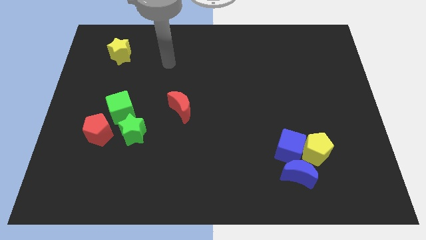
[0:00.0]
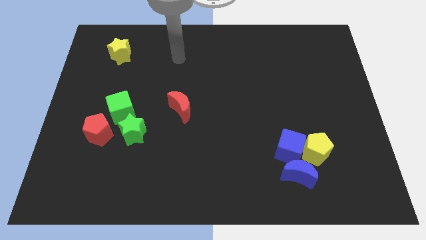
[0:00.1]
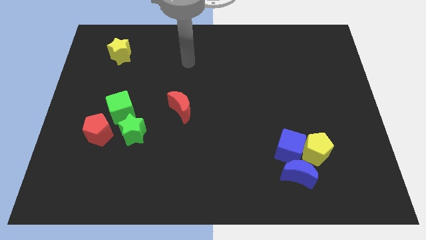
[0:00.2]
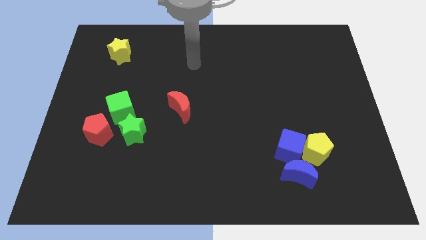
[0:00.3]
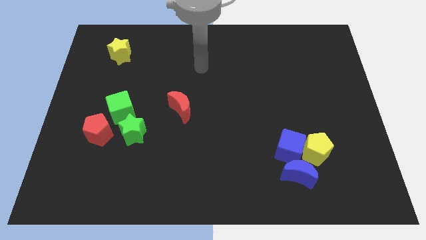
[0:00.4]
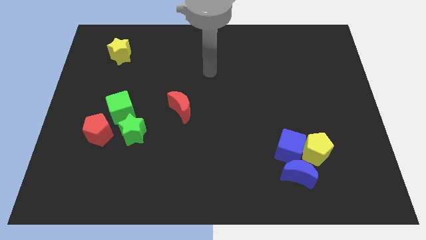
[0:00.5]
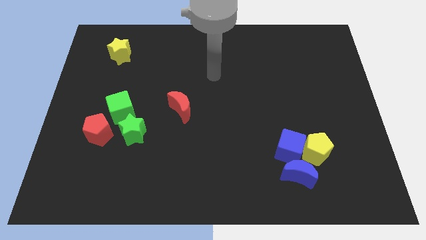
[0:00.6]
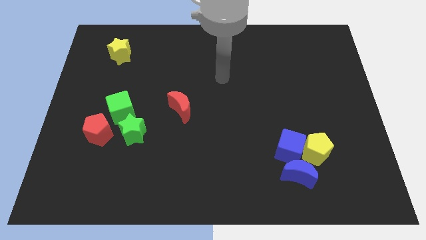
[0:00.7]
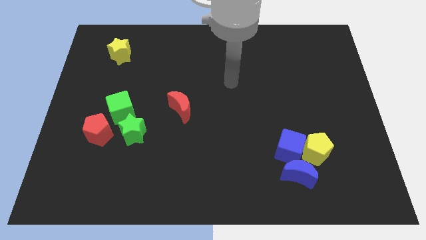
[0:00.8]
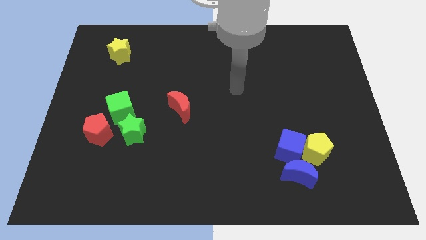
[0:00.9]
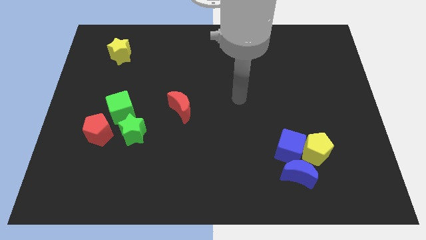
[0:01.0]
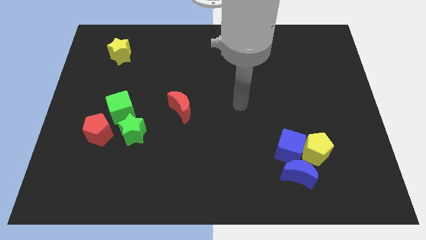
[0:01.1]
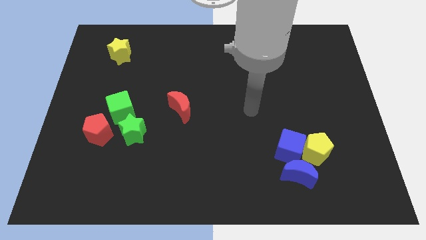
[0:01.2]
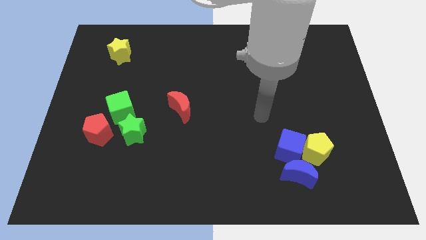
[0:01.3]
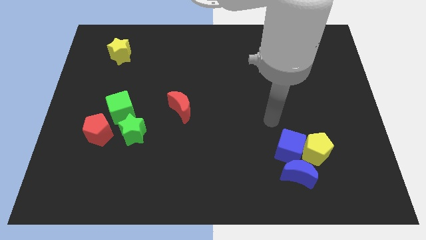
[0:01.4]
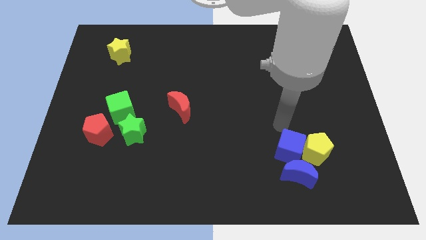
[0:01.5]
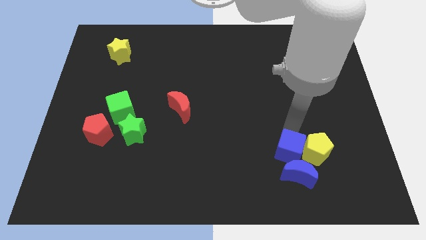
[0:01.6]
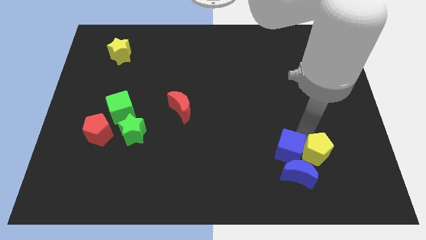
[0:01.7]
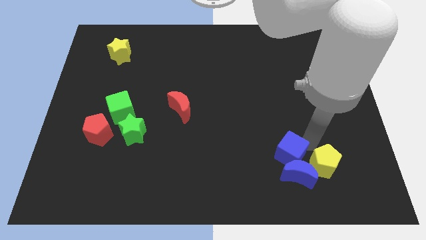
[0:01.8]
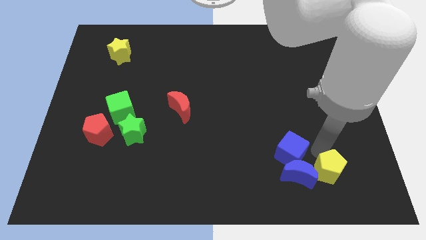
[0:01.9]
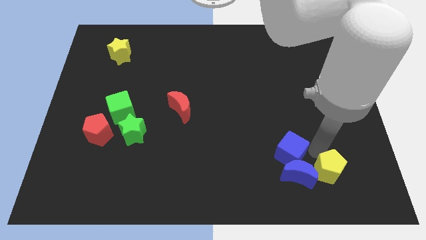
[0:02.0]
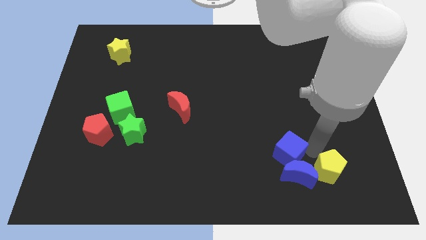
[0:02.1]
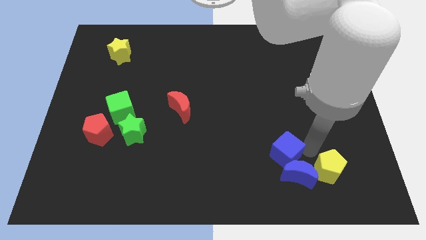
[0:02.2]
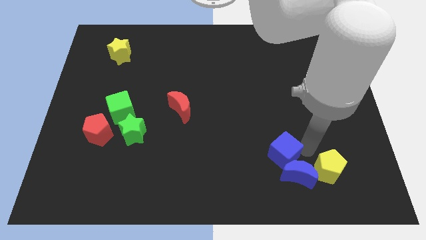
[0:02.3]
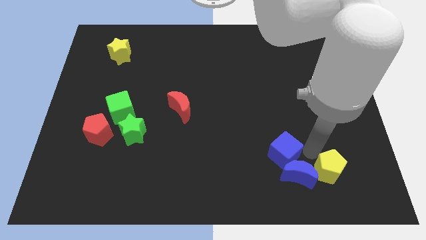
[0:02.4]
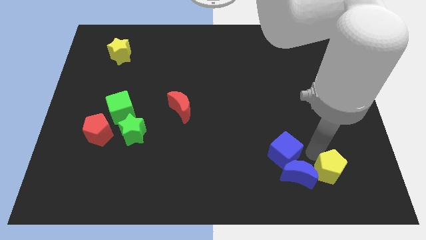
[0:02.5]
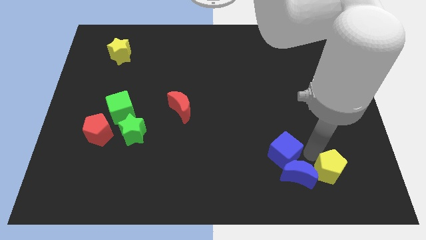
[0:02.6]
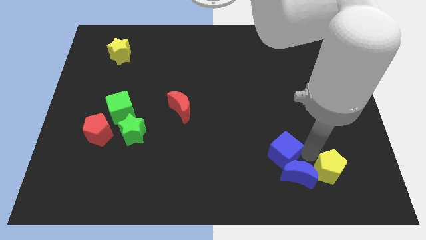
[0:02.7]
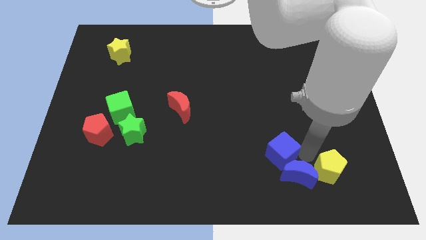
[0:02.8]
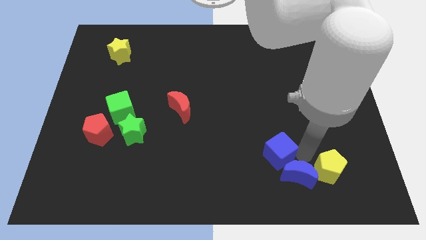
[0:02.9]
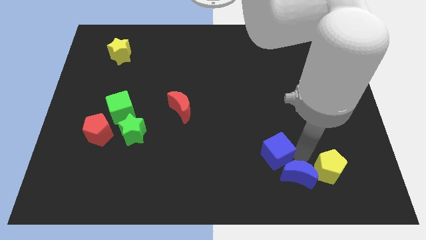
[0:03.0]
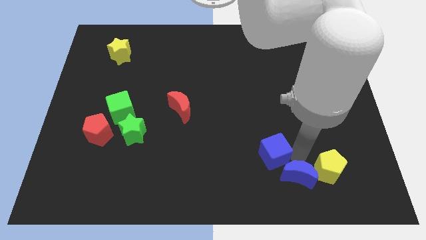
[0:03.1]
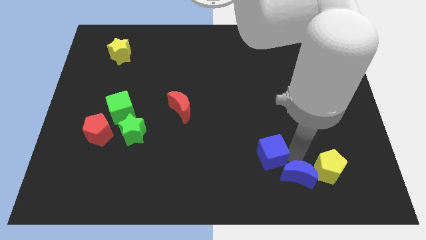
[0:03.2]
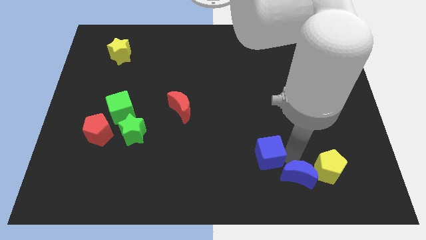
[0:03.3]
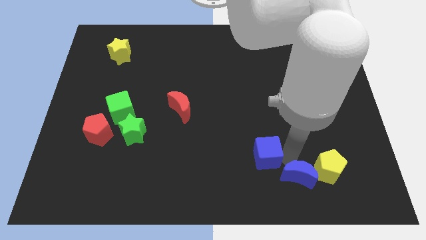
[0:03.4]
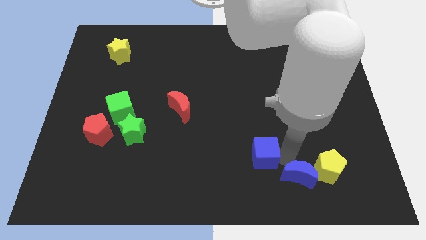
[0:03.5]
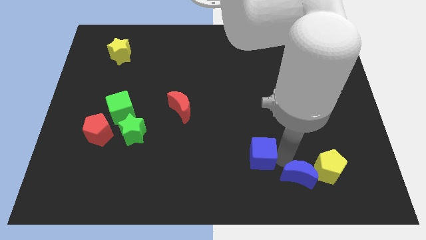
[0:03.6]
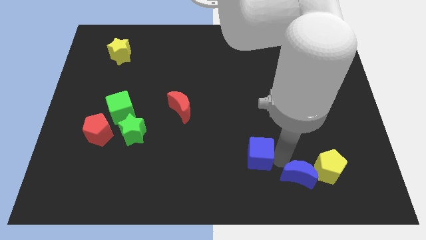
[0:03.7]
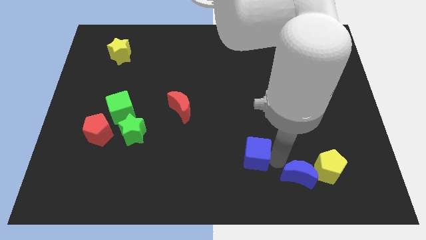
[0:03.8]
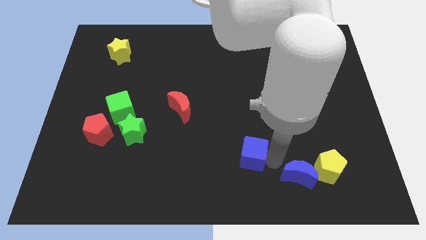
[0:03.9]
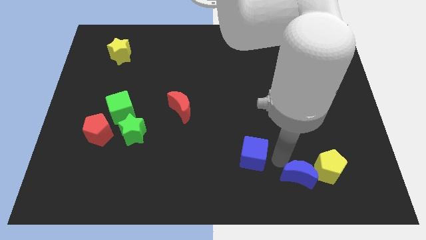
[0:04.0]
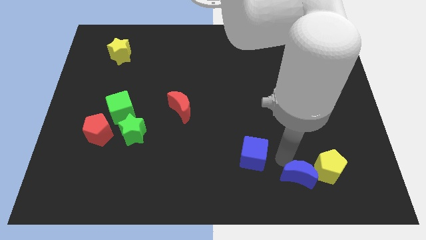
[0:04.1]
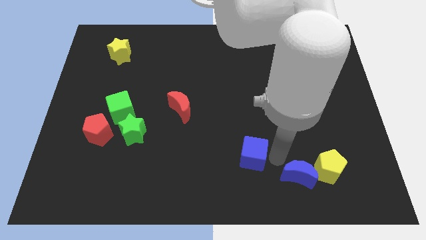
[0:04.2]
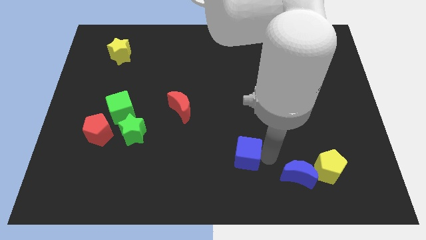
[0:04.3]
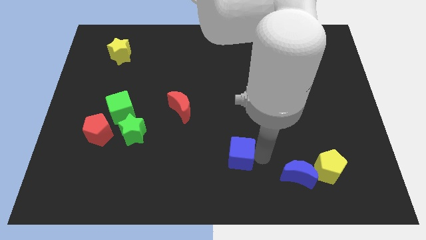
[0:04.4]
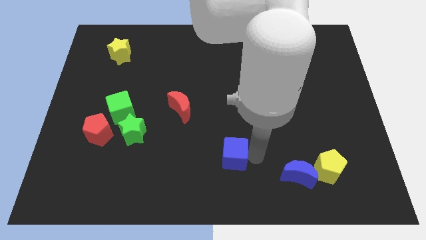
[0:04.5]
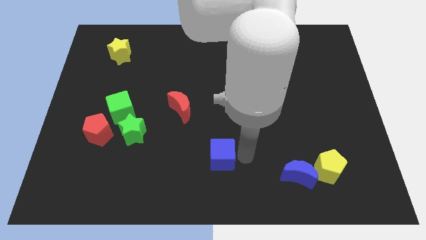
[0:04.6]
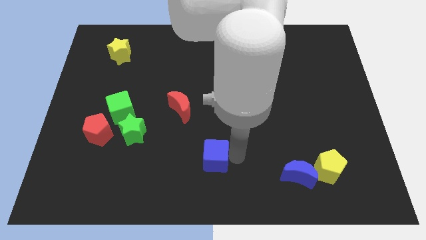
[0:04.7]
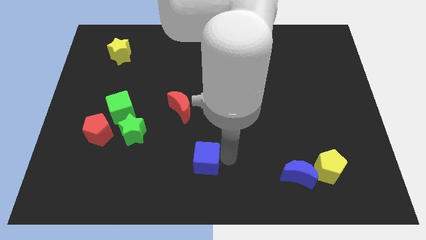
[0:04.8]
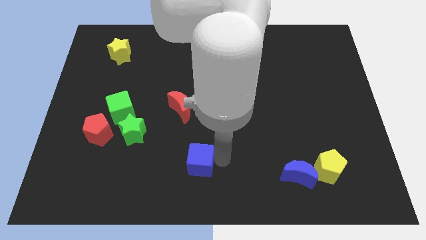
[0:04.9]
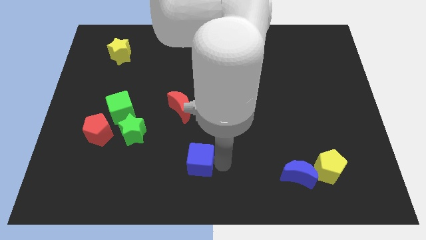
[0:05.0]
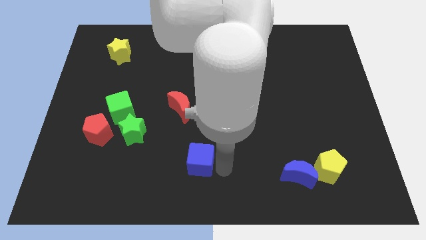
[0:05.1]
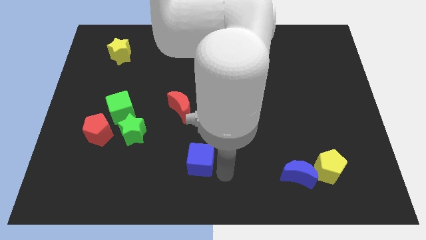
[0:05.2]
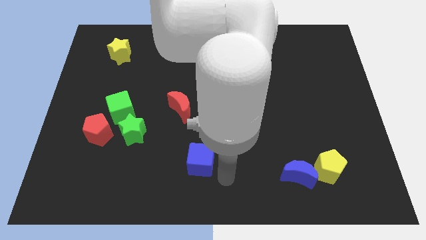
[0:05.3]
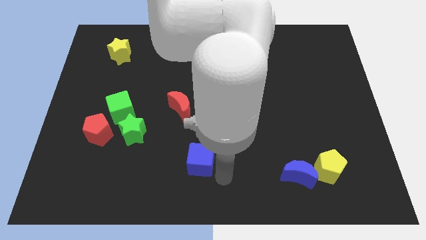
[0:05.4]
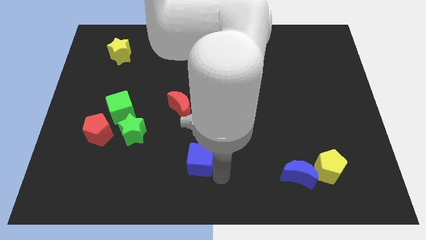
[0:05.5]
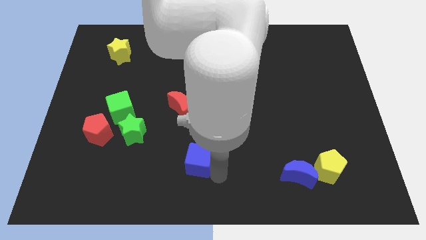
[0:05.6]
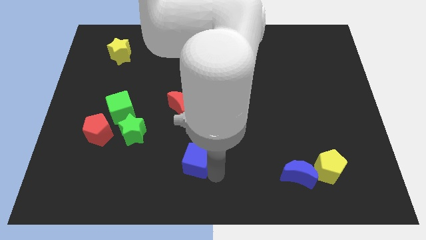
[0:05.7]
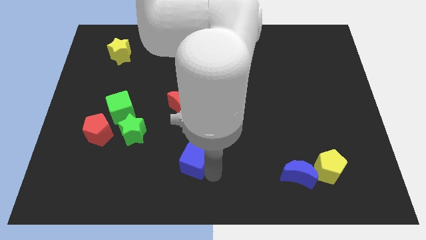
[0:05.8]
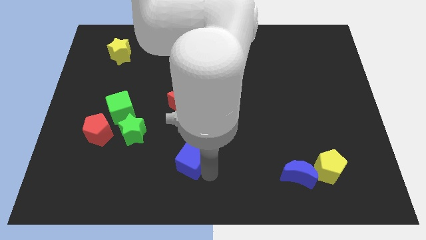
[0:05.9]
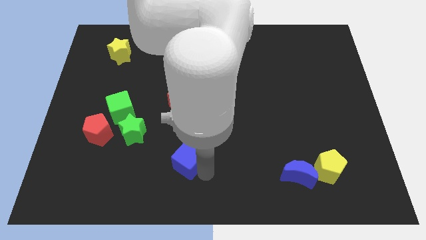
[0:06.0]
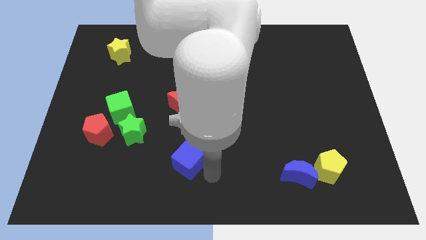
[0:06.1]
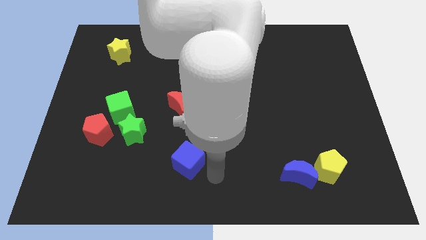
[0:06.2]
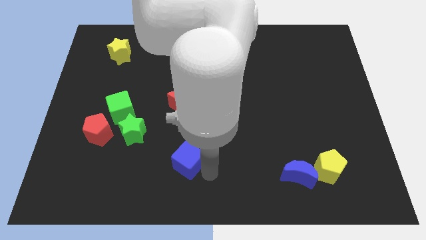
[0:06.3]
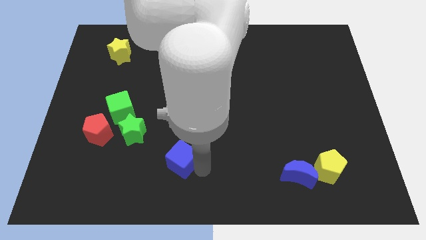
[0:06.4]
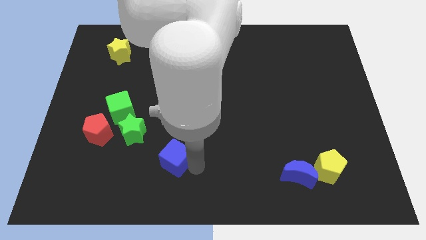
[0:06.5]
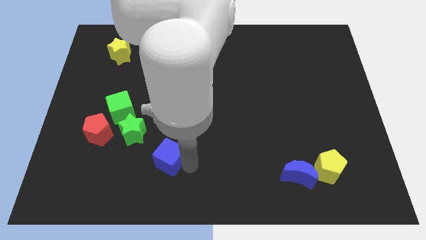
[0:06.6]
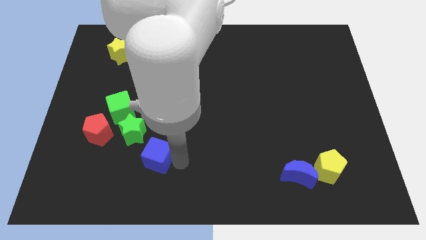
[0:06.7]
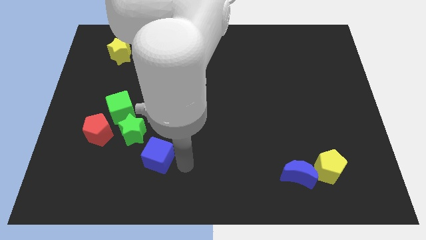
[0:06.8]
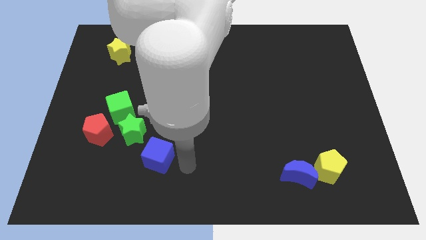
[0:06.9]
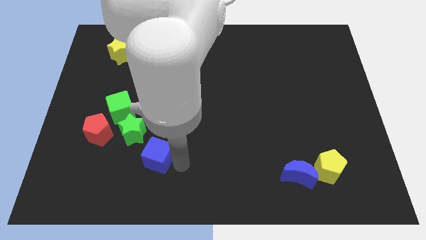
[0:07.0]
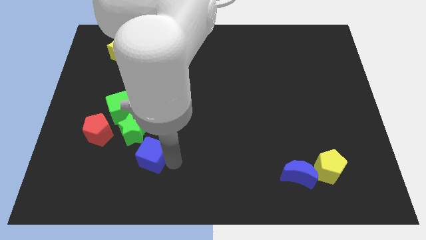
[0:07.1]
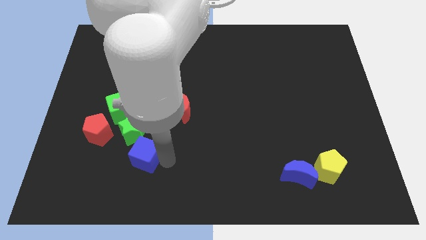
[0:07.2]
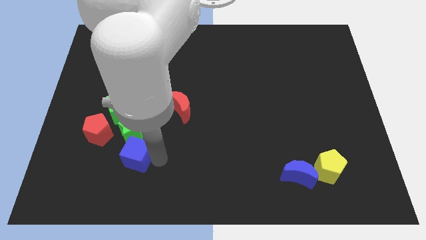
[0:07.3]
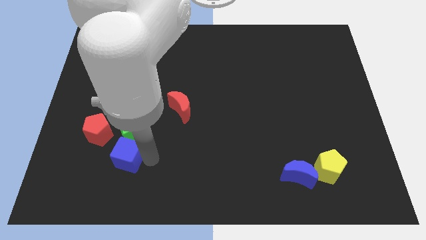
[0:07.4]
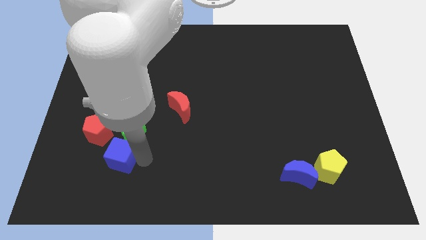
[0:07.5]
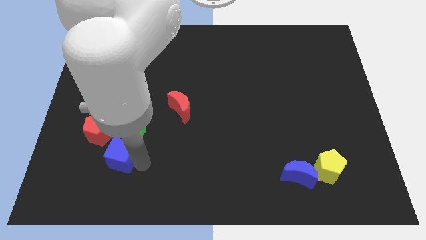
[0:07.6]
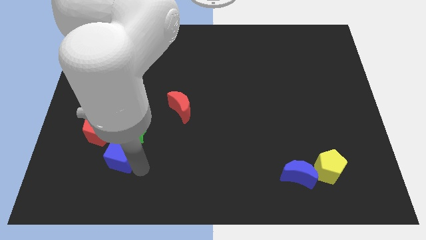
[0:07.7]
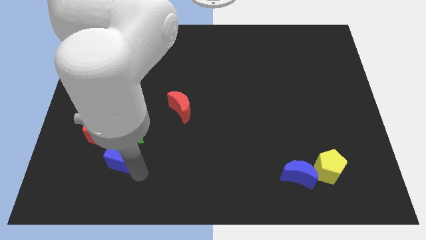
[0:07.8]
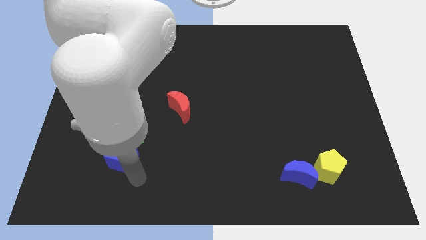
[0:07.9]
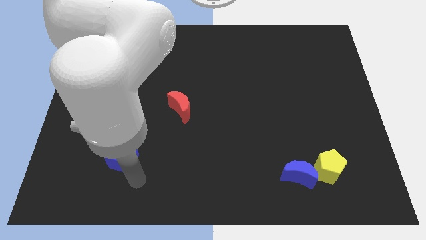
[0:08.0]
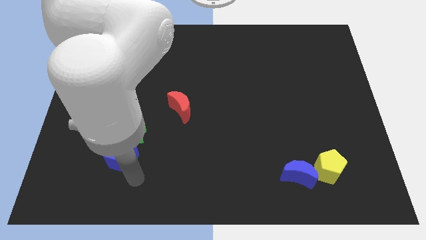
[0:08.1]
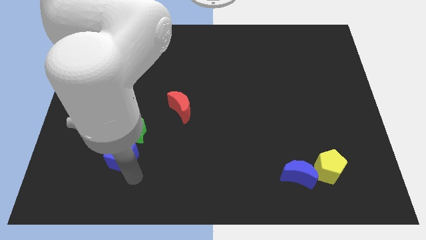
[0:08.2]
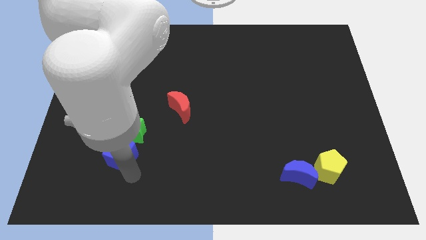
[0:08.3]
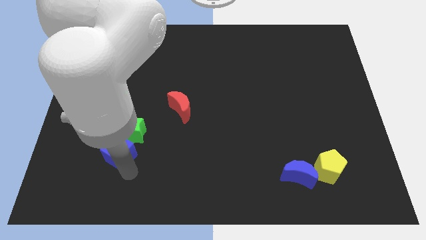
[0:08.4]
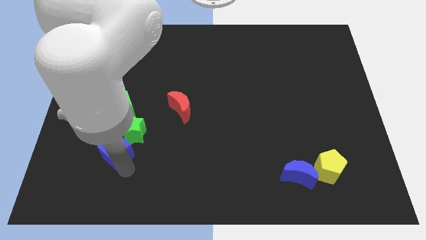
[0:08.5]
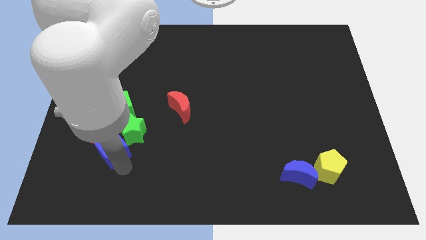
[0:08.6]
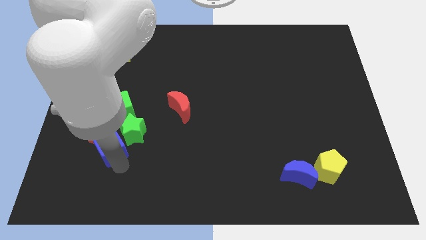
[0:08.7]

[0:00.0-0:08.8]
move the blue cube close to the red pentagon

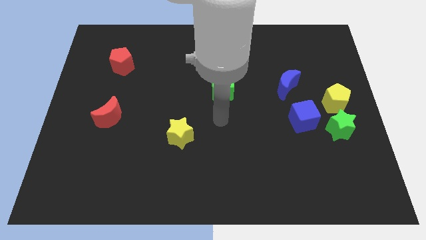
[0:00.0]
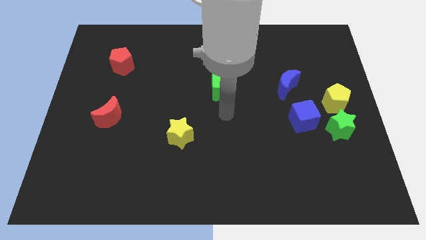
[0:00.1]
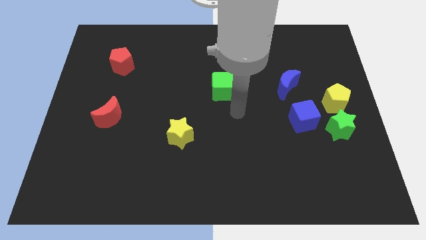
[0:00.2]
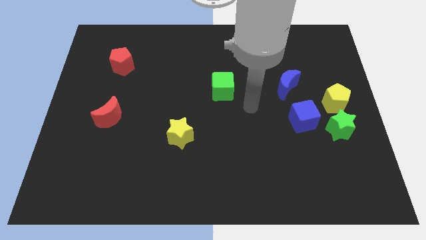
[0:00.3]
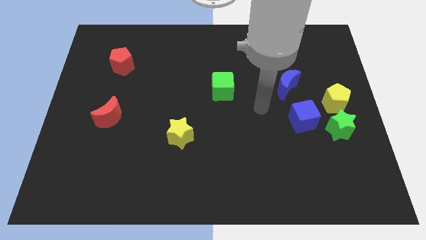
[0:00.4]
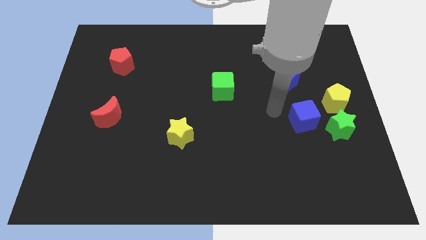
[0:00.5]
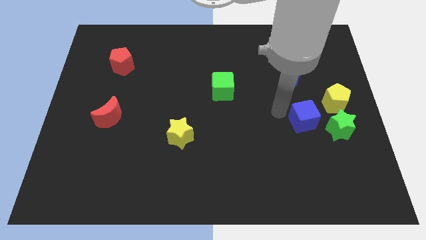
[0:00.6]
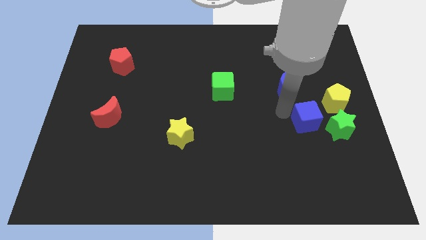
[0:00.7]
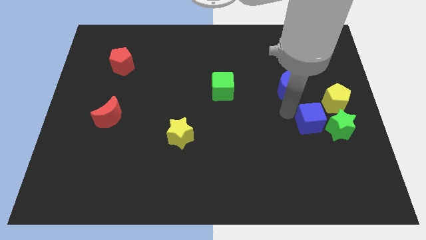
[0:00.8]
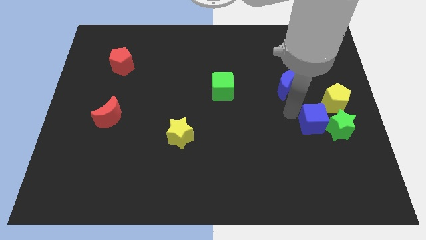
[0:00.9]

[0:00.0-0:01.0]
put the blue cube towards the green star
